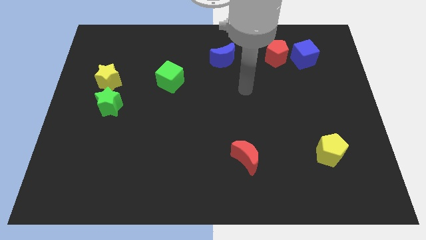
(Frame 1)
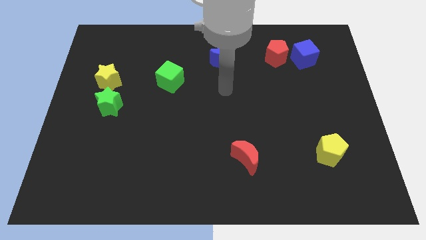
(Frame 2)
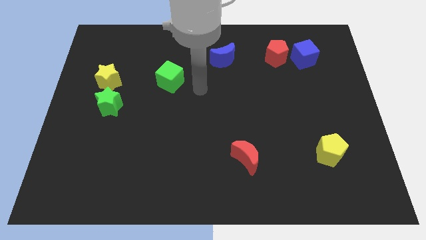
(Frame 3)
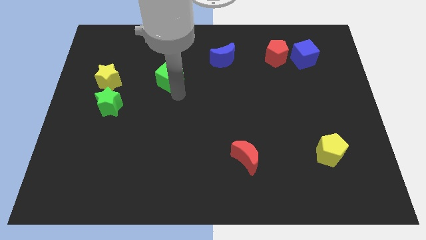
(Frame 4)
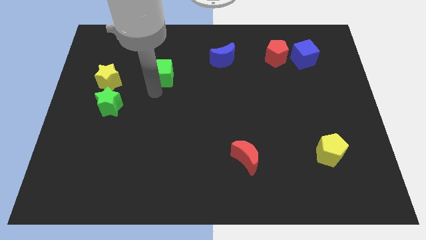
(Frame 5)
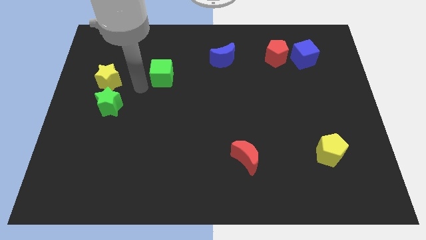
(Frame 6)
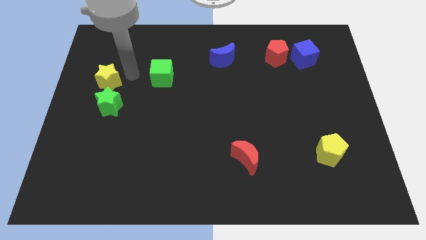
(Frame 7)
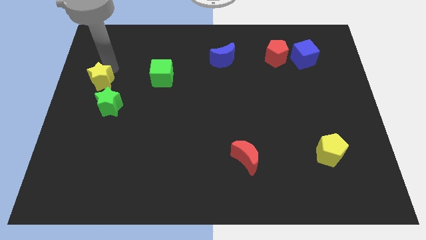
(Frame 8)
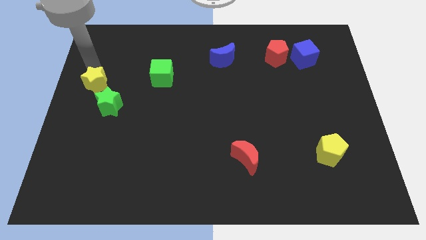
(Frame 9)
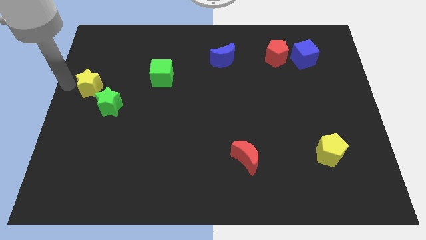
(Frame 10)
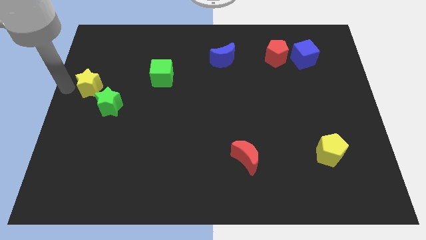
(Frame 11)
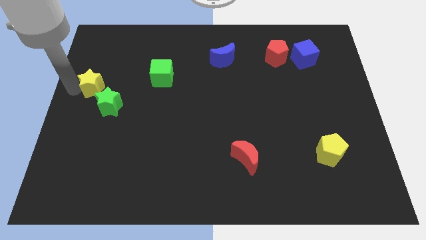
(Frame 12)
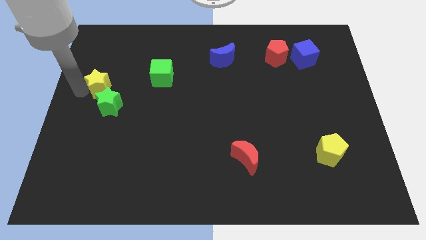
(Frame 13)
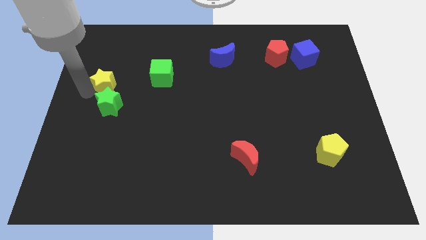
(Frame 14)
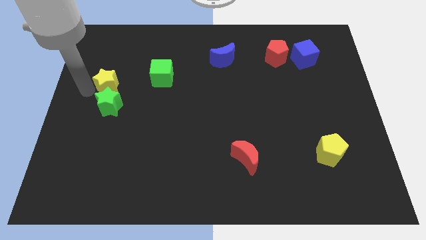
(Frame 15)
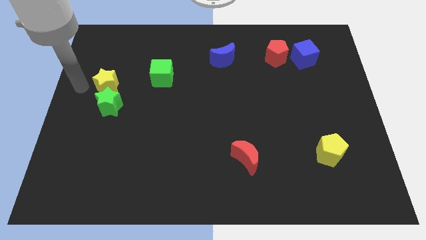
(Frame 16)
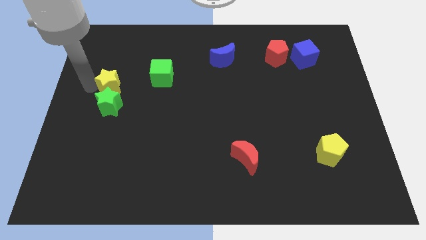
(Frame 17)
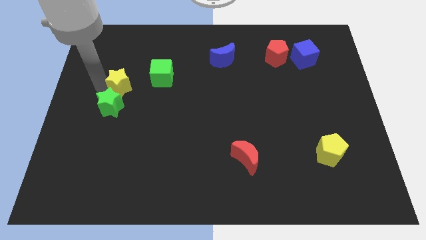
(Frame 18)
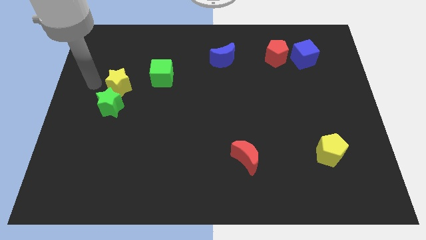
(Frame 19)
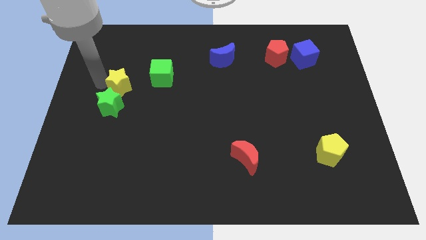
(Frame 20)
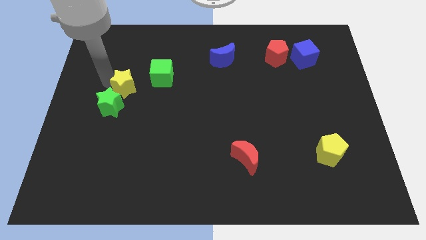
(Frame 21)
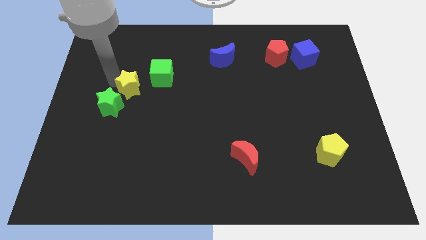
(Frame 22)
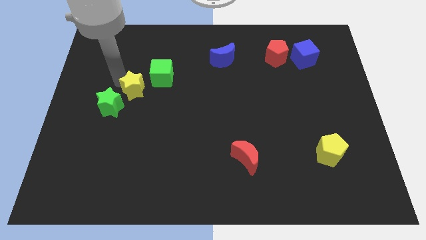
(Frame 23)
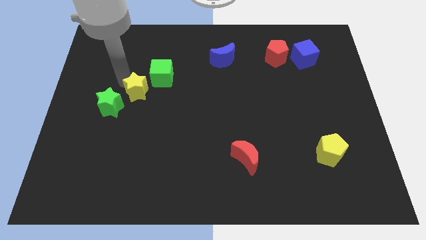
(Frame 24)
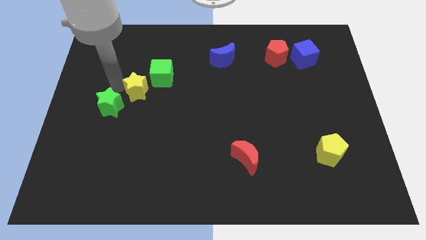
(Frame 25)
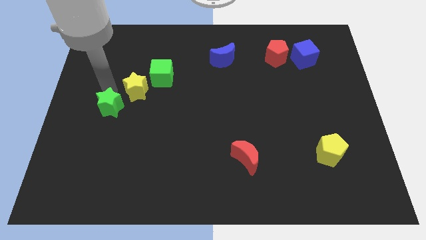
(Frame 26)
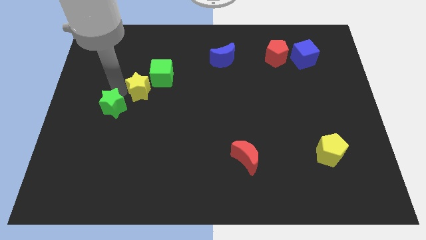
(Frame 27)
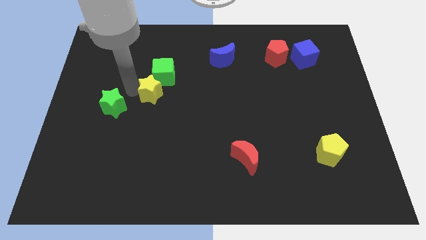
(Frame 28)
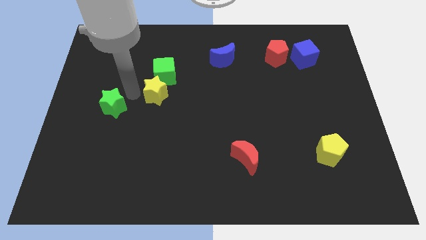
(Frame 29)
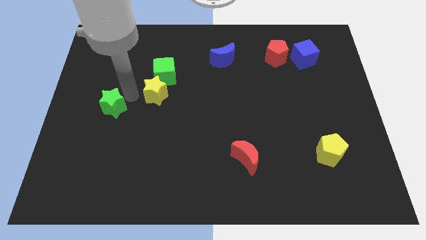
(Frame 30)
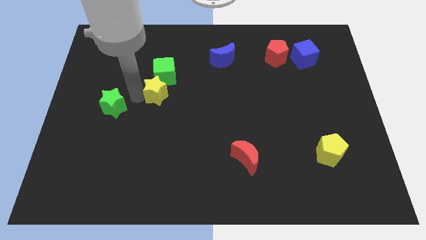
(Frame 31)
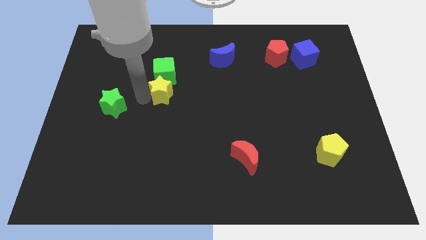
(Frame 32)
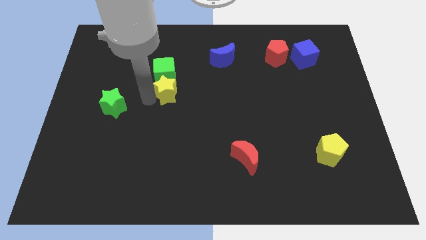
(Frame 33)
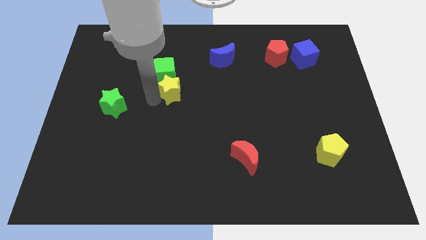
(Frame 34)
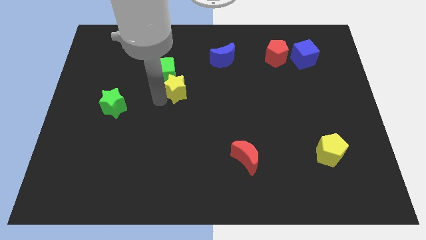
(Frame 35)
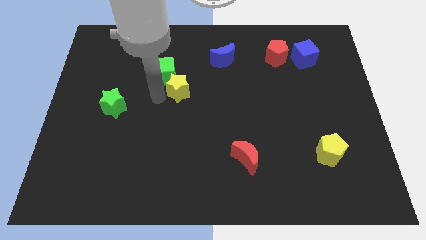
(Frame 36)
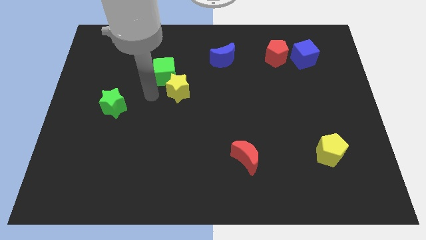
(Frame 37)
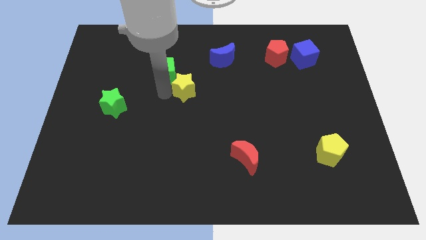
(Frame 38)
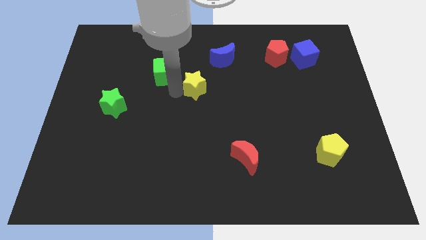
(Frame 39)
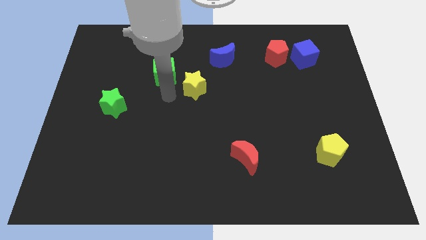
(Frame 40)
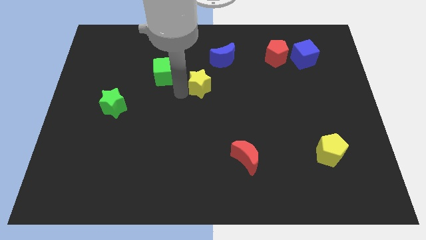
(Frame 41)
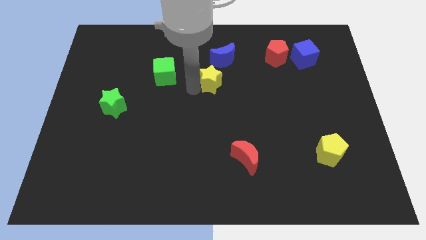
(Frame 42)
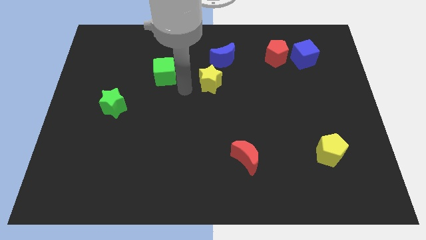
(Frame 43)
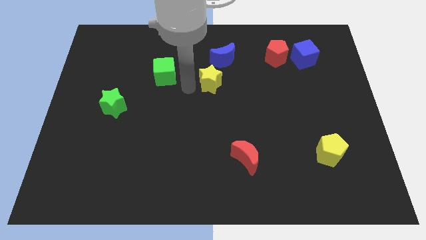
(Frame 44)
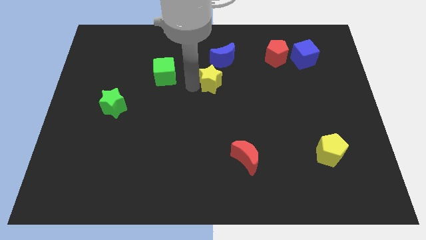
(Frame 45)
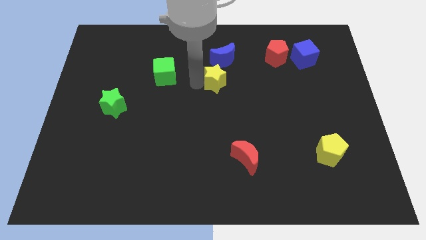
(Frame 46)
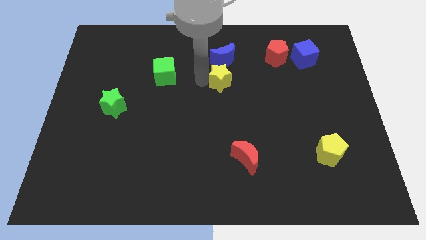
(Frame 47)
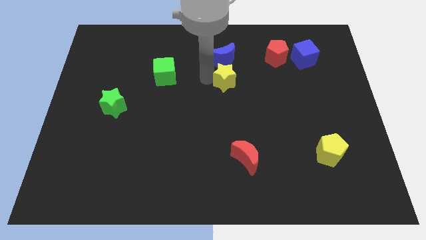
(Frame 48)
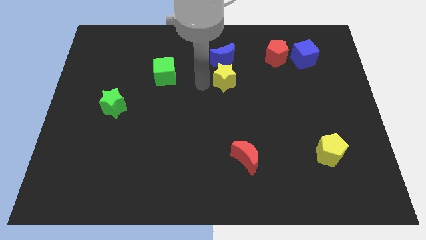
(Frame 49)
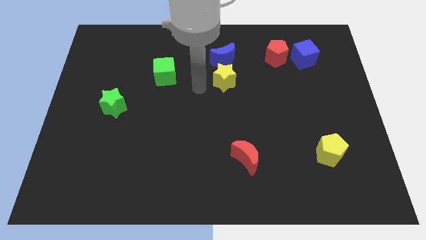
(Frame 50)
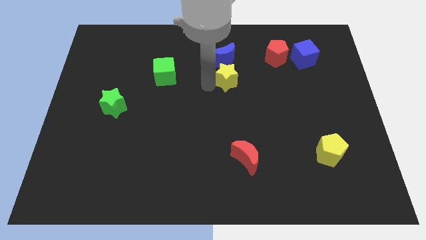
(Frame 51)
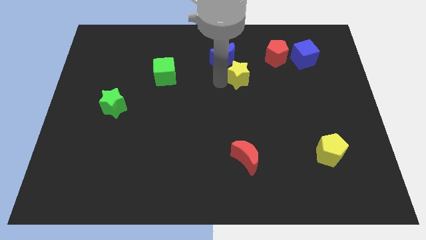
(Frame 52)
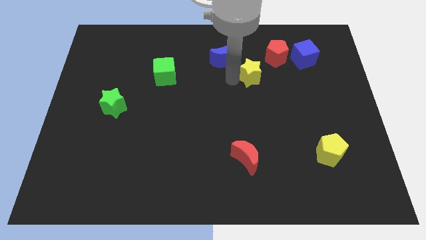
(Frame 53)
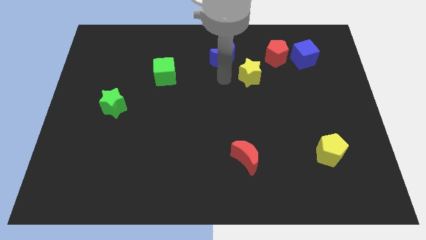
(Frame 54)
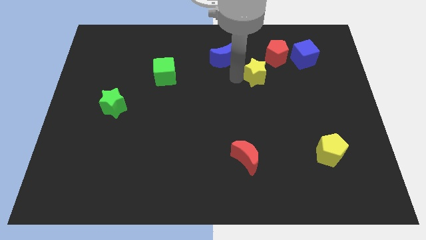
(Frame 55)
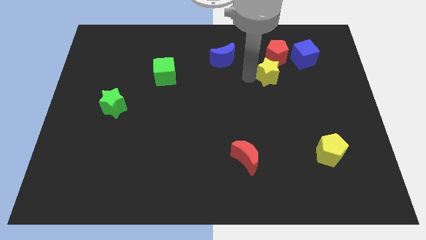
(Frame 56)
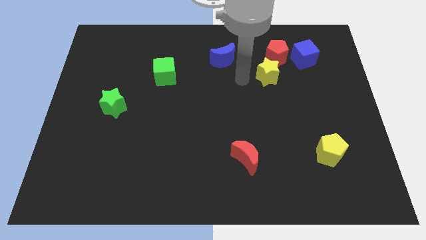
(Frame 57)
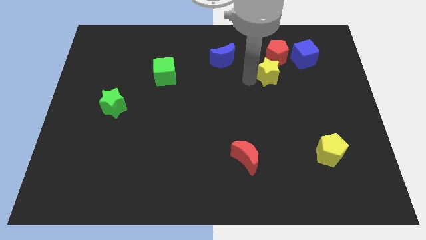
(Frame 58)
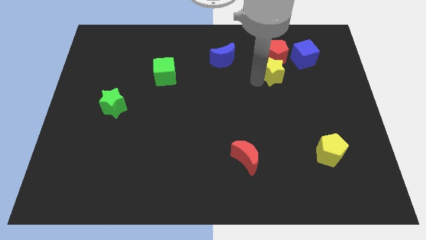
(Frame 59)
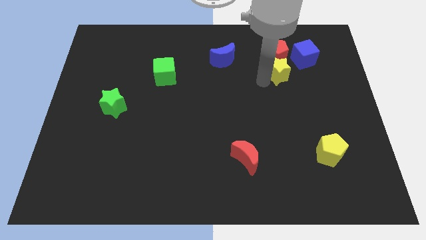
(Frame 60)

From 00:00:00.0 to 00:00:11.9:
move the yellow star to the bottom right of the red pentagon

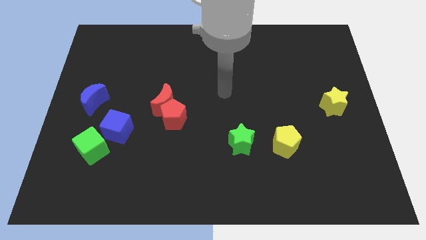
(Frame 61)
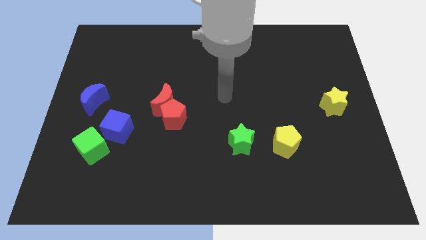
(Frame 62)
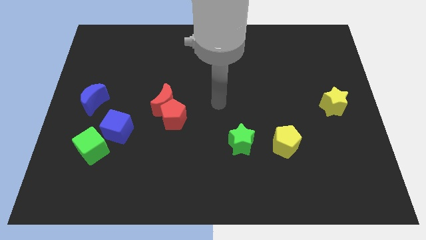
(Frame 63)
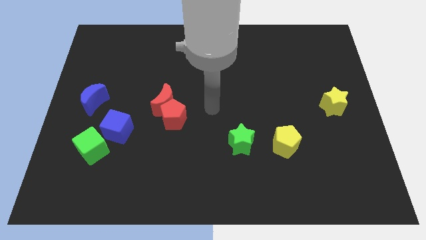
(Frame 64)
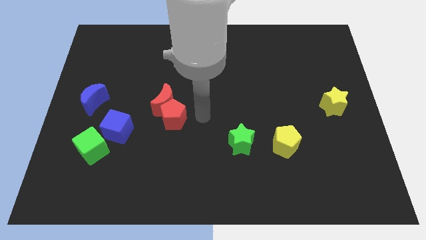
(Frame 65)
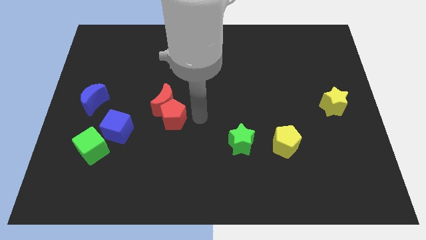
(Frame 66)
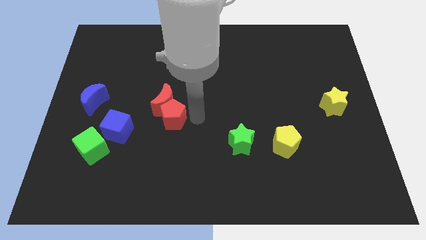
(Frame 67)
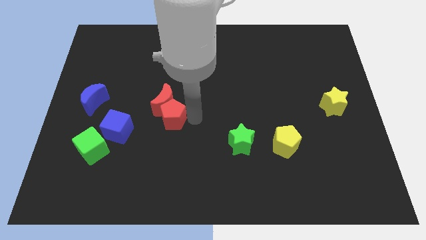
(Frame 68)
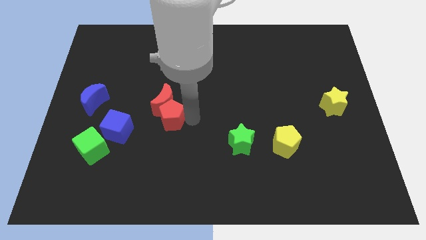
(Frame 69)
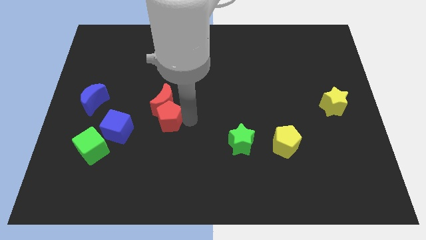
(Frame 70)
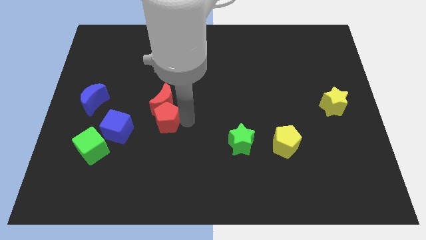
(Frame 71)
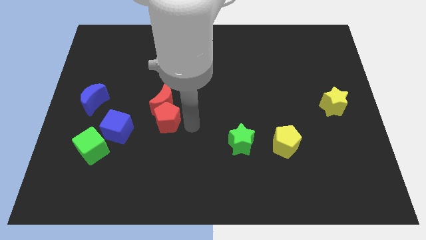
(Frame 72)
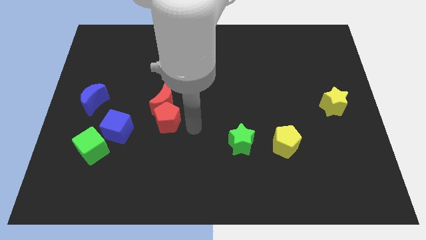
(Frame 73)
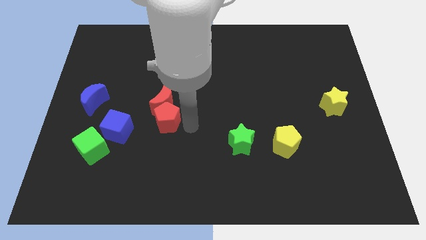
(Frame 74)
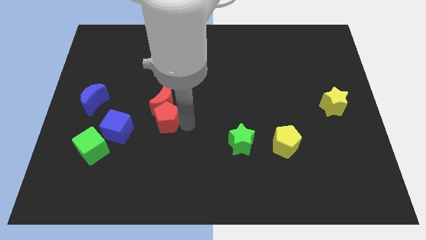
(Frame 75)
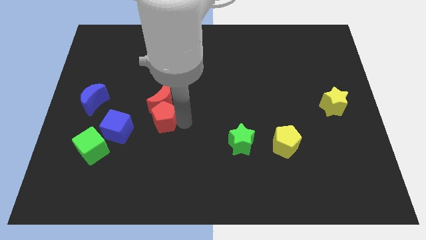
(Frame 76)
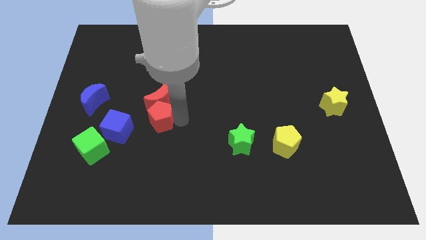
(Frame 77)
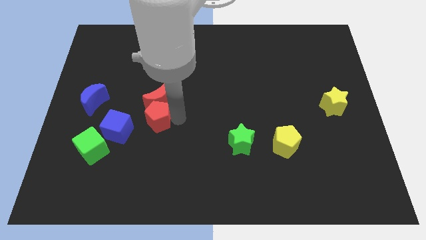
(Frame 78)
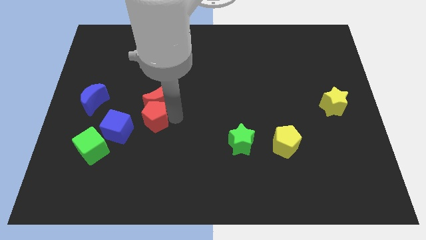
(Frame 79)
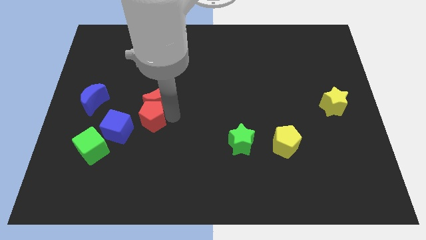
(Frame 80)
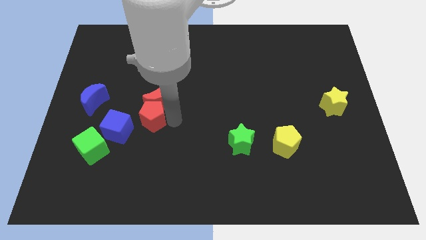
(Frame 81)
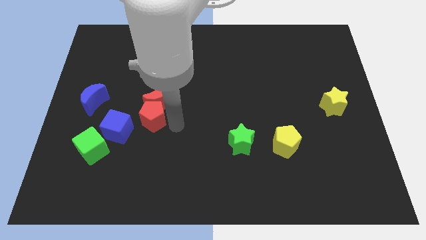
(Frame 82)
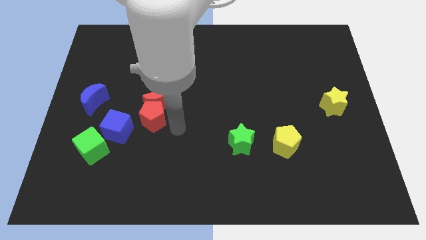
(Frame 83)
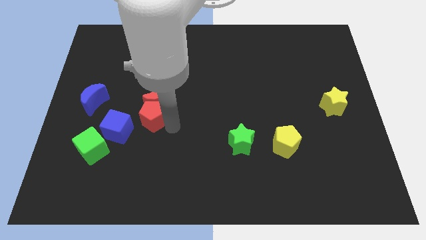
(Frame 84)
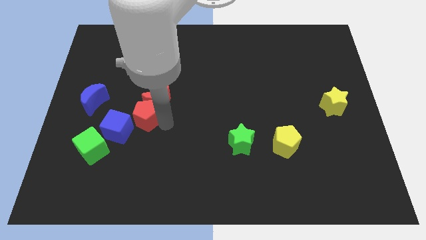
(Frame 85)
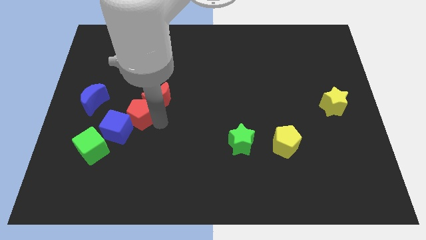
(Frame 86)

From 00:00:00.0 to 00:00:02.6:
slide the red pentagon to the left side of the red moon
